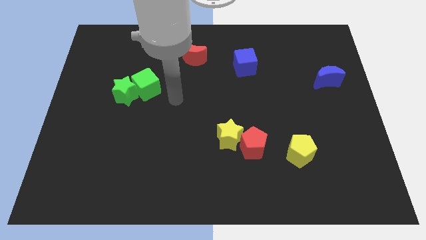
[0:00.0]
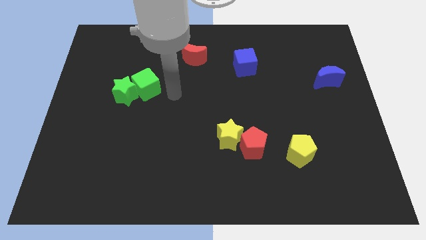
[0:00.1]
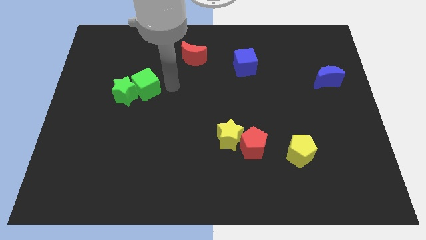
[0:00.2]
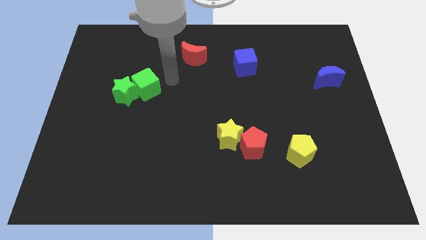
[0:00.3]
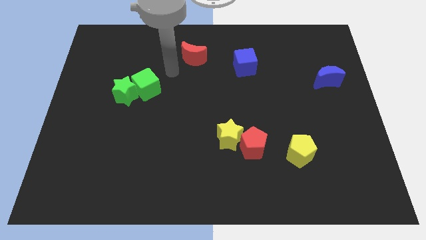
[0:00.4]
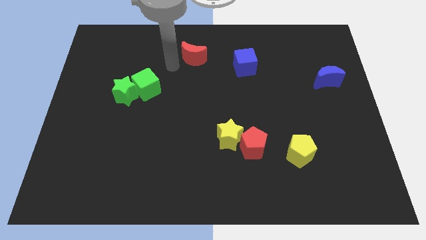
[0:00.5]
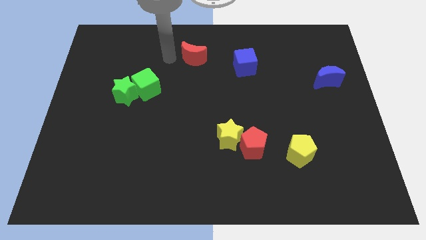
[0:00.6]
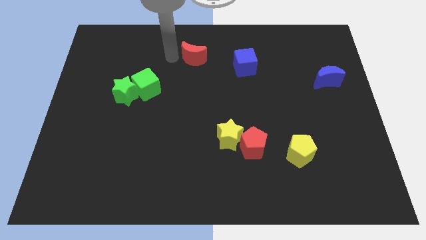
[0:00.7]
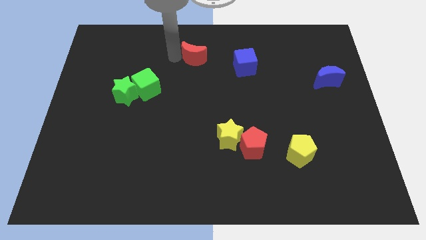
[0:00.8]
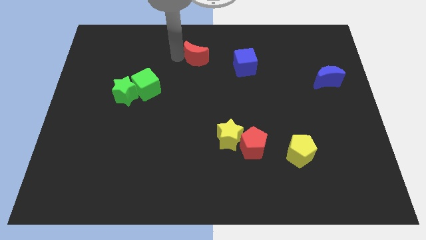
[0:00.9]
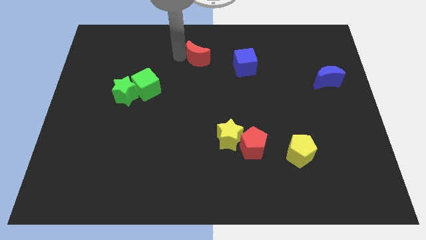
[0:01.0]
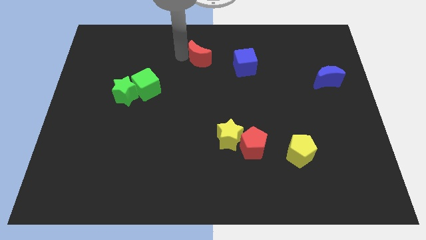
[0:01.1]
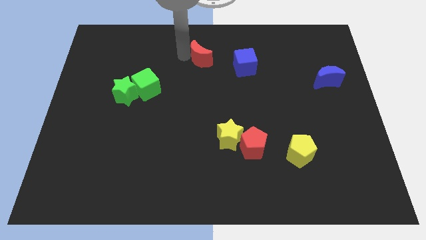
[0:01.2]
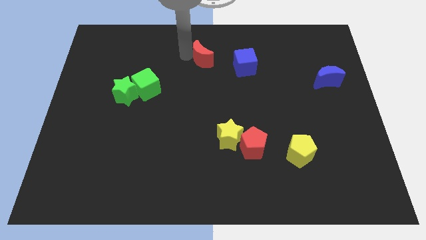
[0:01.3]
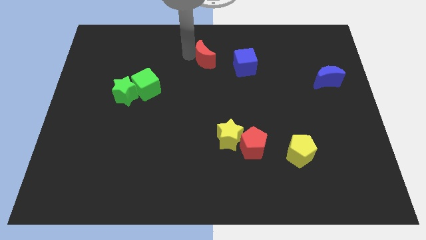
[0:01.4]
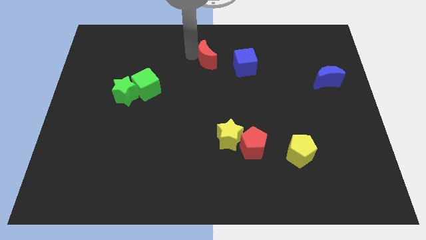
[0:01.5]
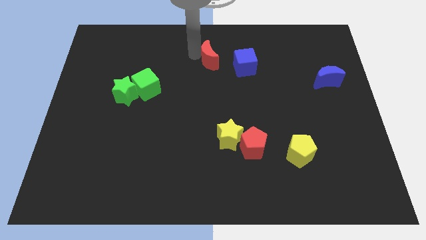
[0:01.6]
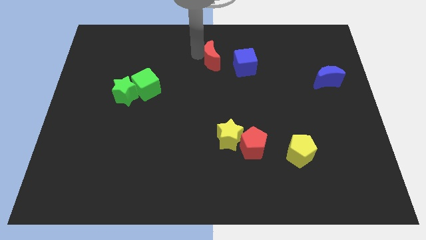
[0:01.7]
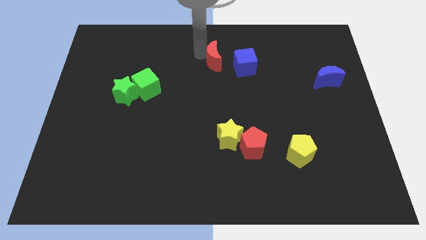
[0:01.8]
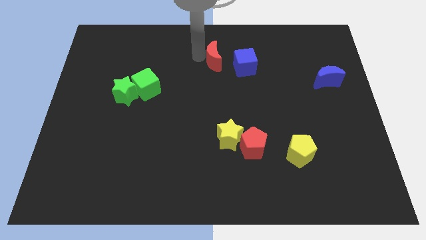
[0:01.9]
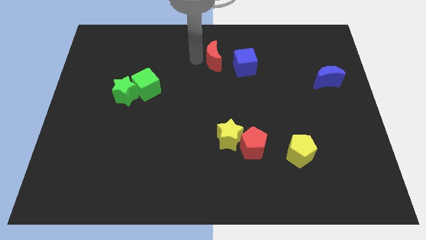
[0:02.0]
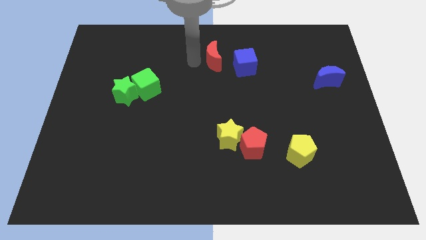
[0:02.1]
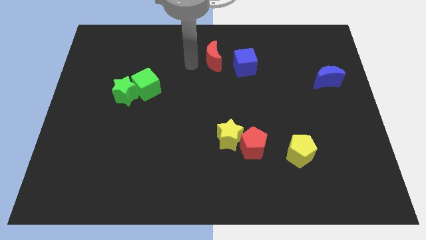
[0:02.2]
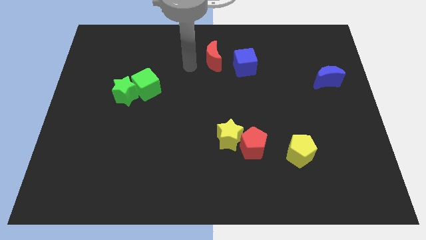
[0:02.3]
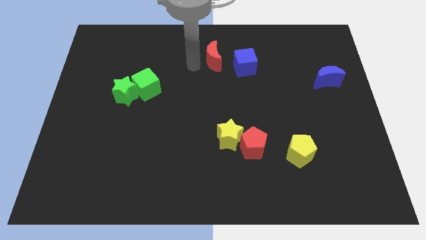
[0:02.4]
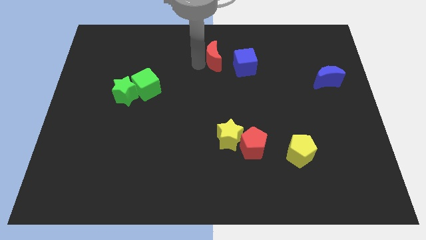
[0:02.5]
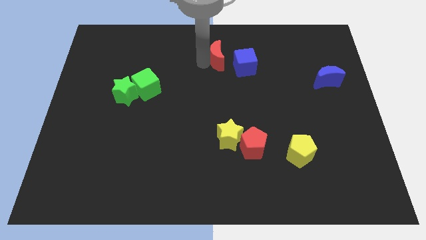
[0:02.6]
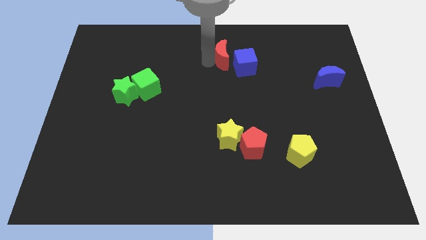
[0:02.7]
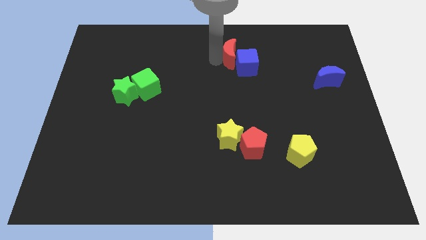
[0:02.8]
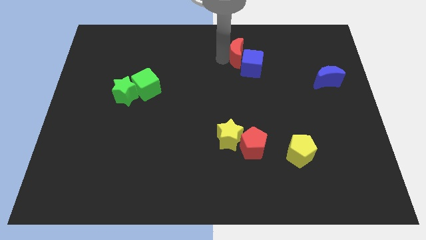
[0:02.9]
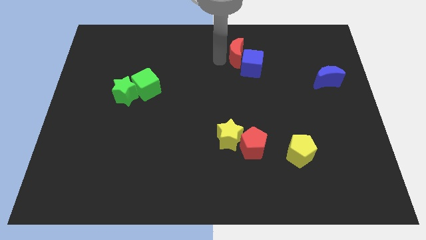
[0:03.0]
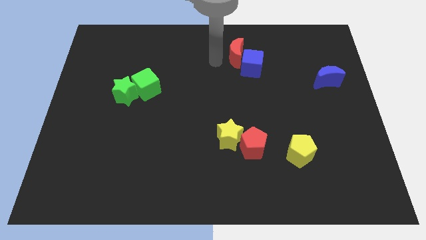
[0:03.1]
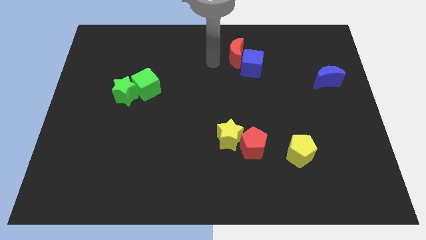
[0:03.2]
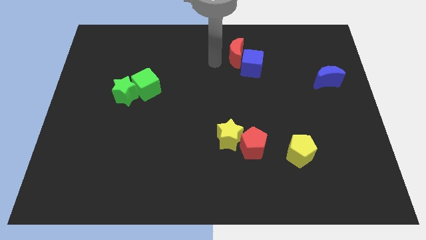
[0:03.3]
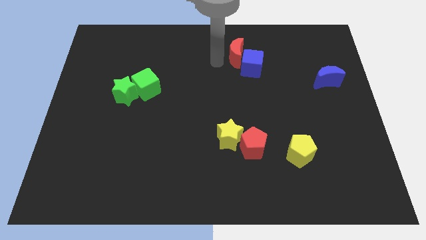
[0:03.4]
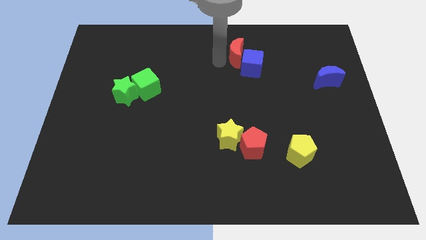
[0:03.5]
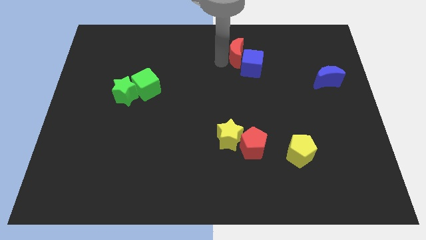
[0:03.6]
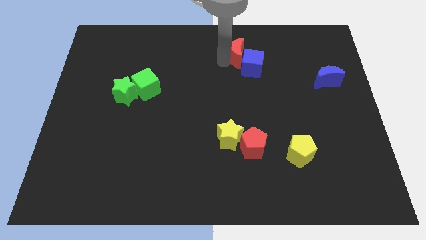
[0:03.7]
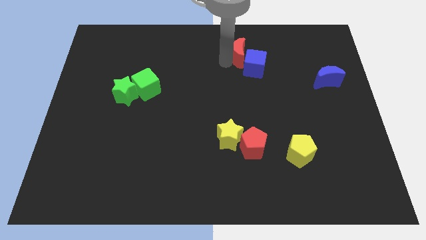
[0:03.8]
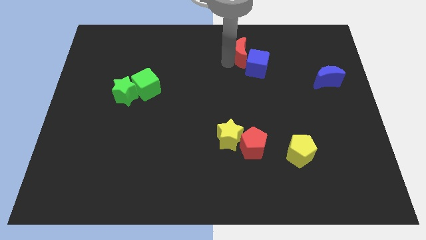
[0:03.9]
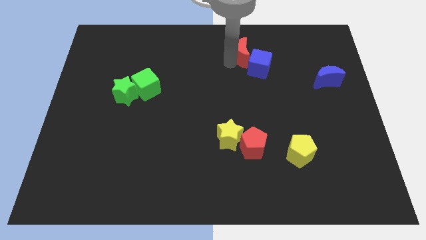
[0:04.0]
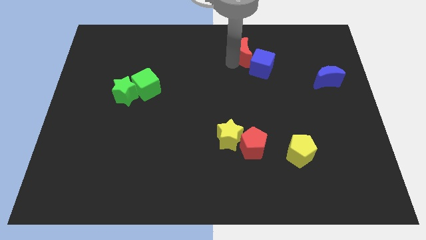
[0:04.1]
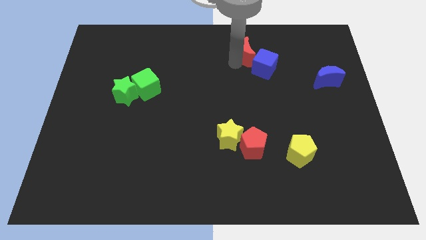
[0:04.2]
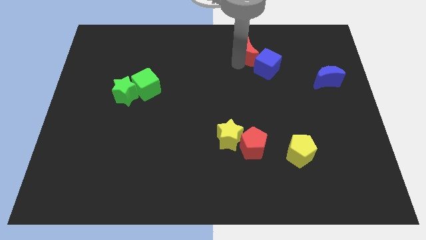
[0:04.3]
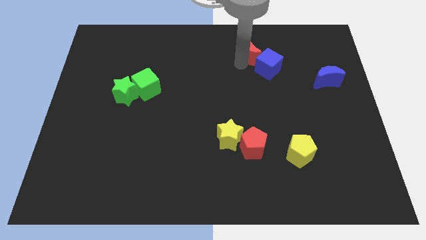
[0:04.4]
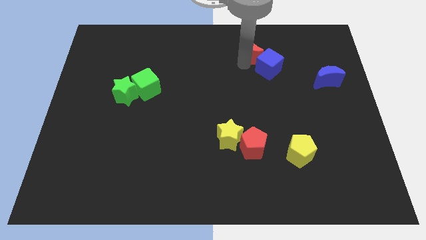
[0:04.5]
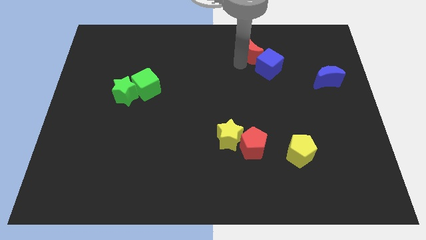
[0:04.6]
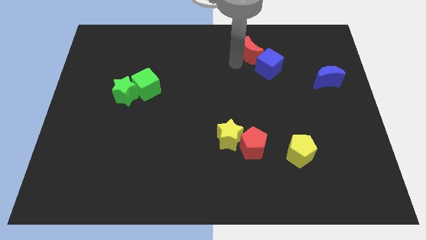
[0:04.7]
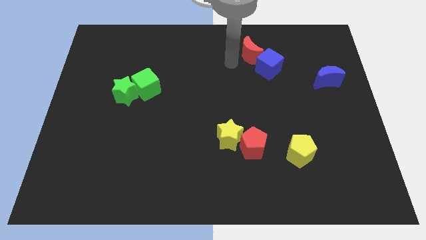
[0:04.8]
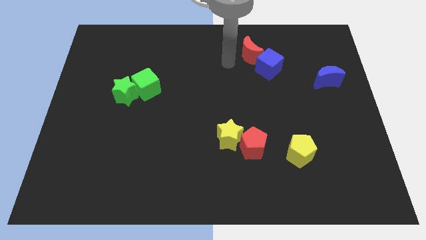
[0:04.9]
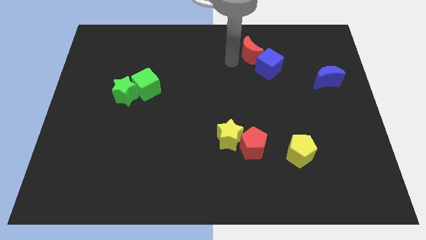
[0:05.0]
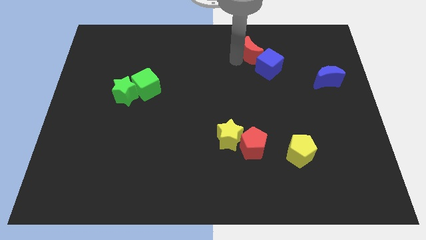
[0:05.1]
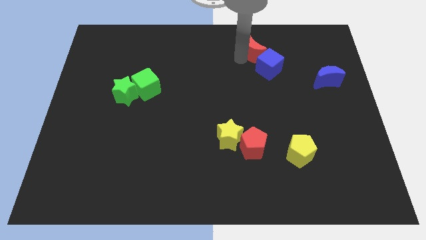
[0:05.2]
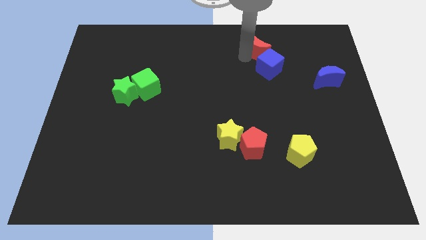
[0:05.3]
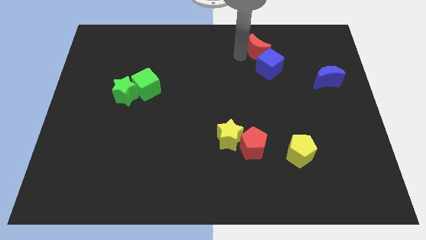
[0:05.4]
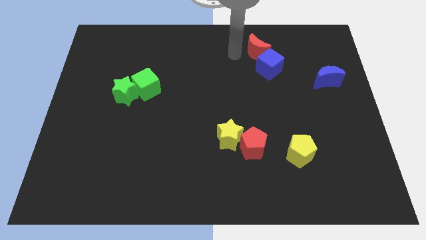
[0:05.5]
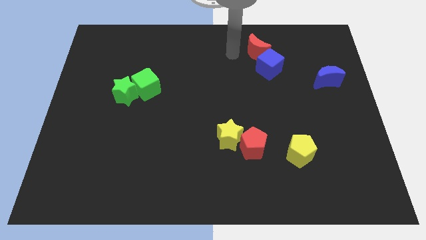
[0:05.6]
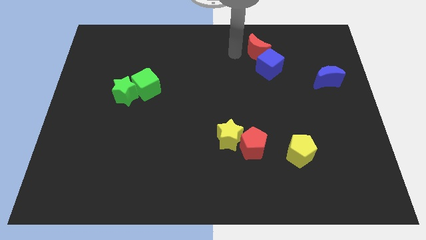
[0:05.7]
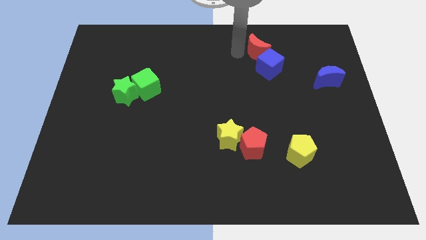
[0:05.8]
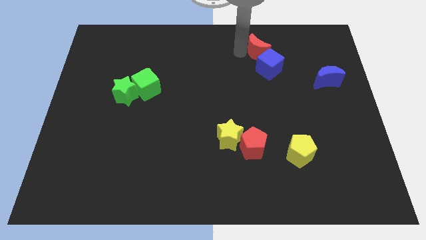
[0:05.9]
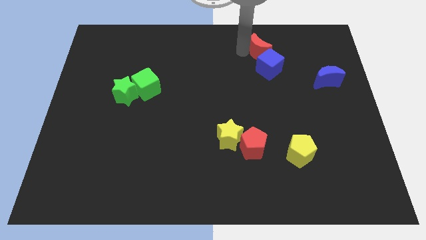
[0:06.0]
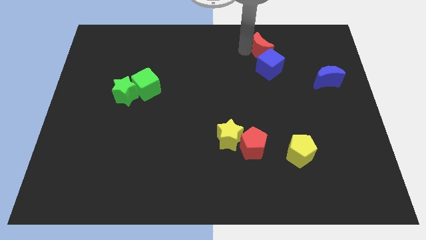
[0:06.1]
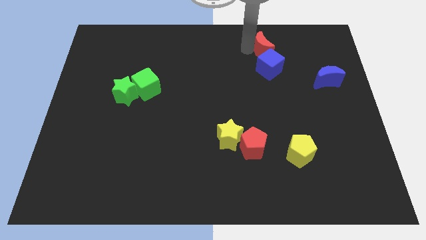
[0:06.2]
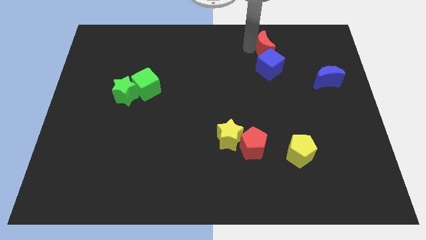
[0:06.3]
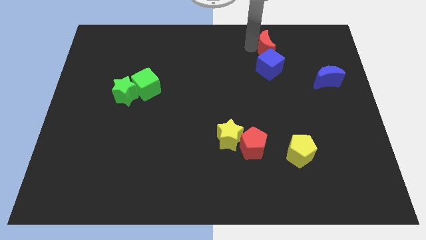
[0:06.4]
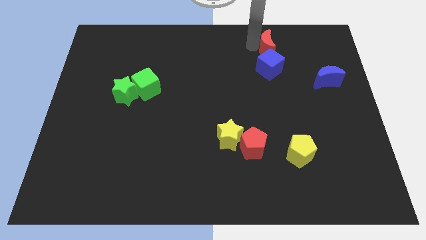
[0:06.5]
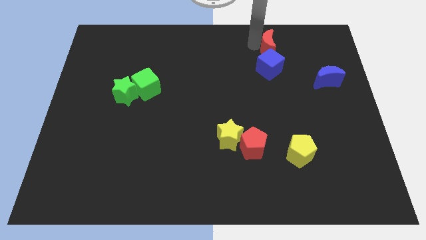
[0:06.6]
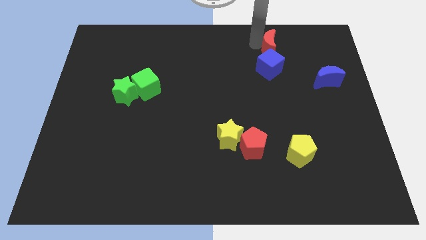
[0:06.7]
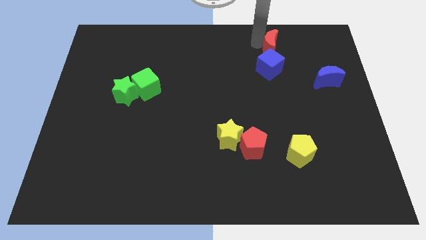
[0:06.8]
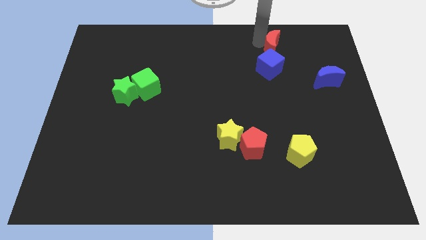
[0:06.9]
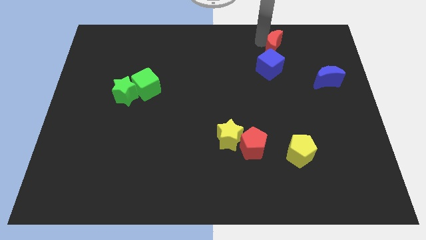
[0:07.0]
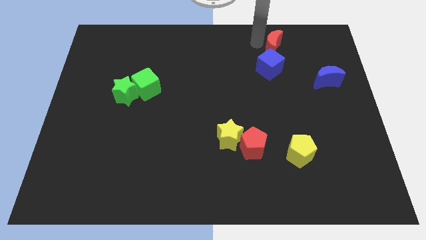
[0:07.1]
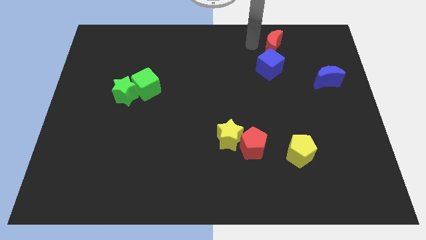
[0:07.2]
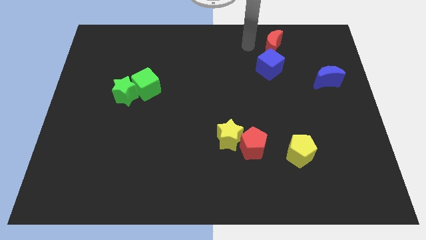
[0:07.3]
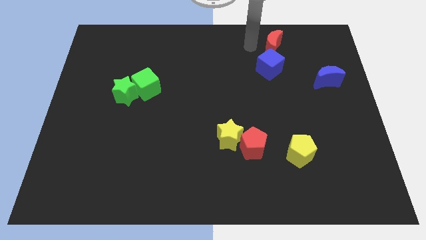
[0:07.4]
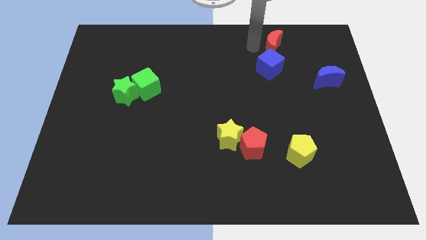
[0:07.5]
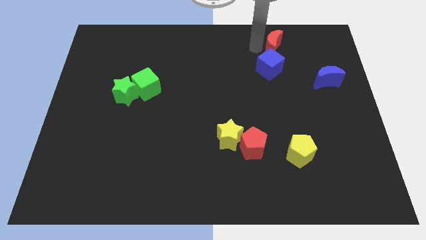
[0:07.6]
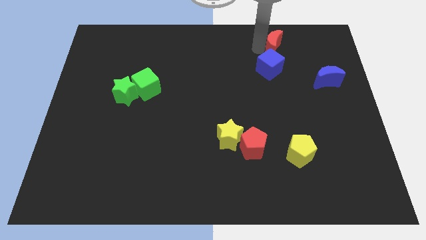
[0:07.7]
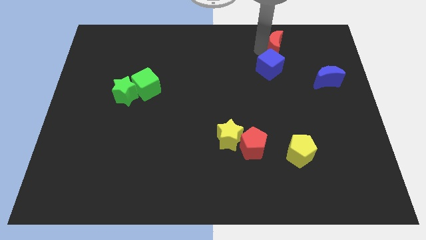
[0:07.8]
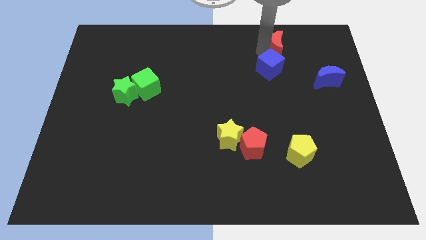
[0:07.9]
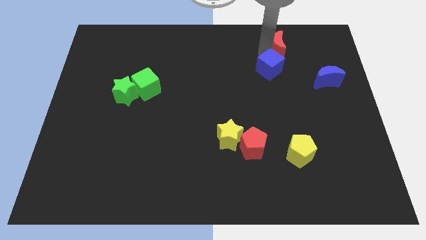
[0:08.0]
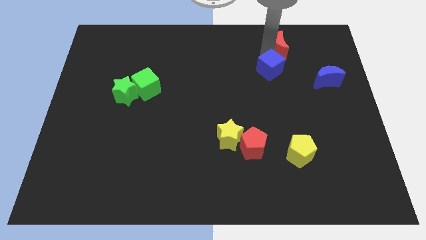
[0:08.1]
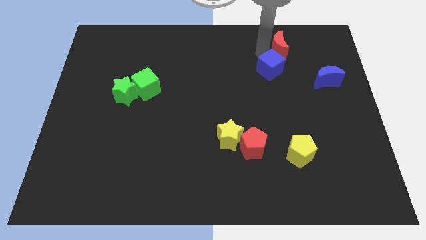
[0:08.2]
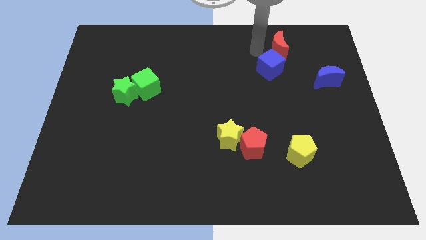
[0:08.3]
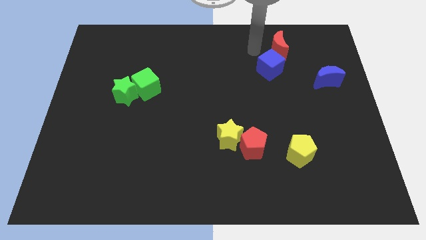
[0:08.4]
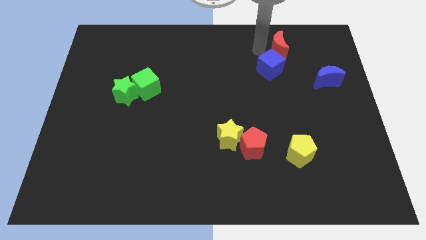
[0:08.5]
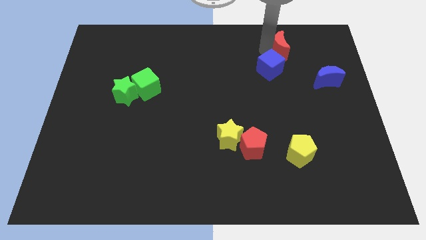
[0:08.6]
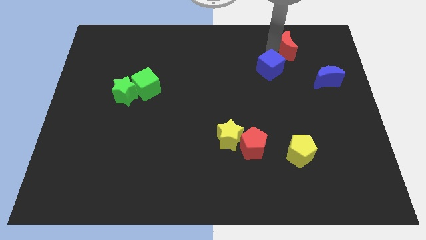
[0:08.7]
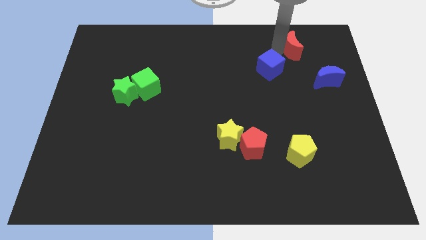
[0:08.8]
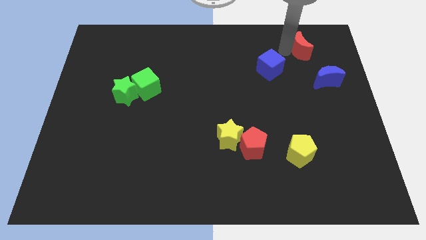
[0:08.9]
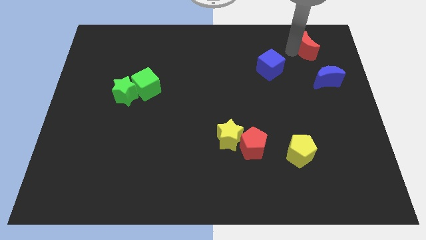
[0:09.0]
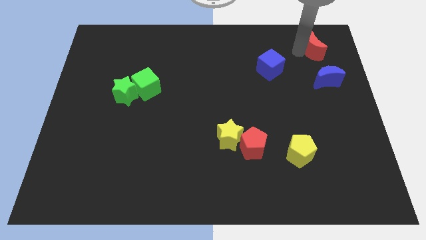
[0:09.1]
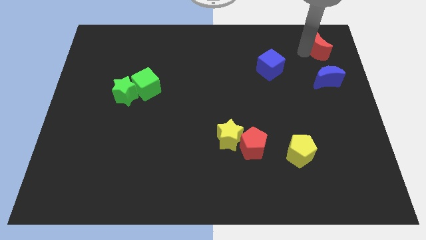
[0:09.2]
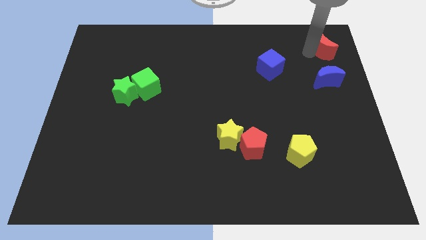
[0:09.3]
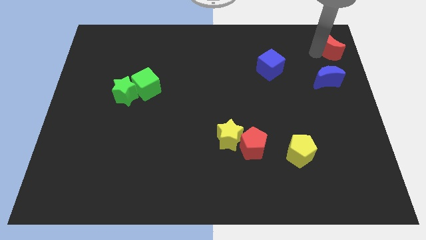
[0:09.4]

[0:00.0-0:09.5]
slide the red moon to the top right corner
